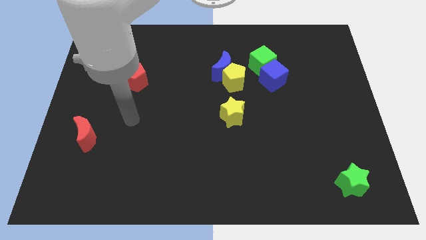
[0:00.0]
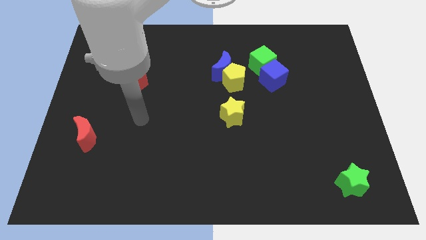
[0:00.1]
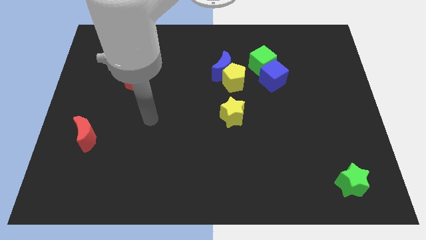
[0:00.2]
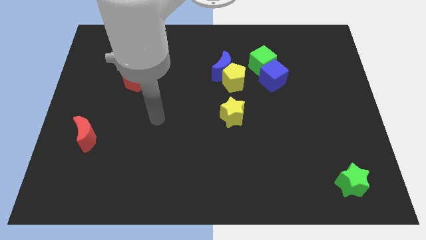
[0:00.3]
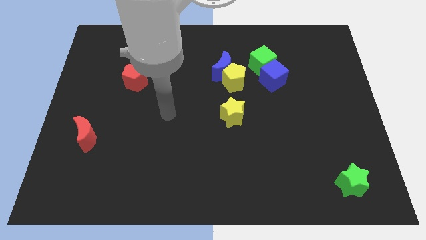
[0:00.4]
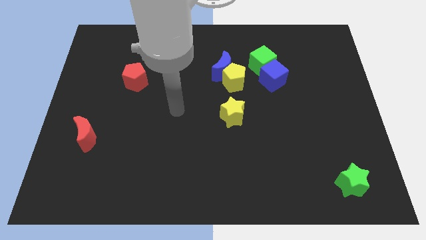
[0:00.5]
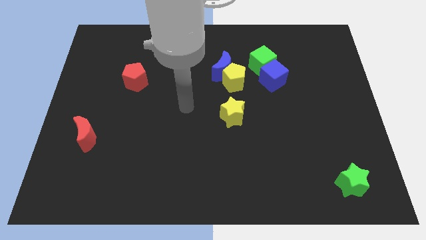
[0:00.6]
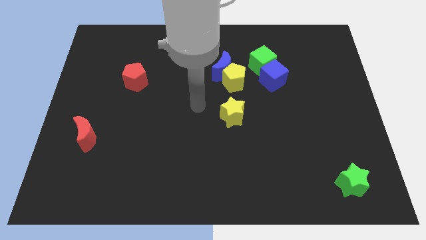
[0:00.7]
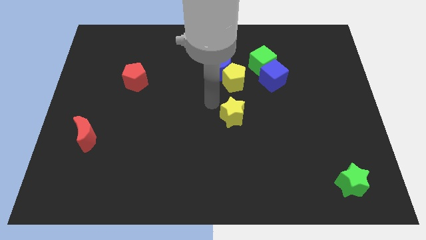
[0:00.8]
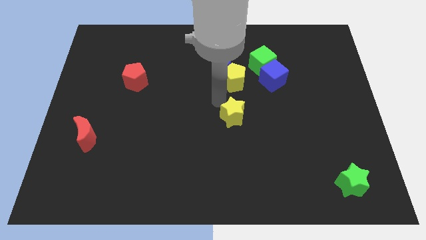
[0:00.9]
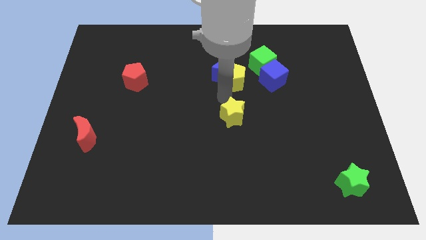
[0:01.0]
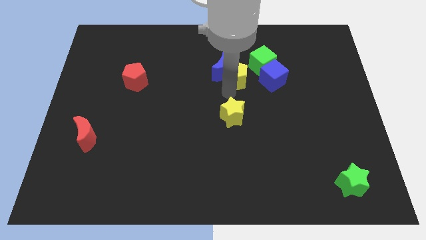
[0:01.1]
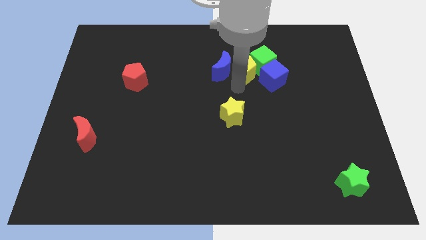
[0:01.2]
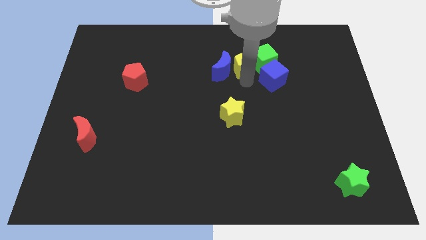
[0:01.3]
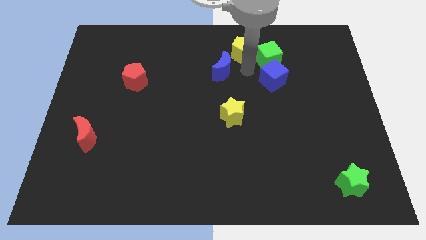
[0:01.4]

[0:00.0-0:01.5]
pull the blue moon apart from the yellow pentagon and green cube

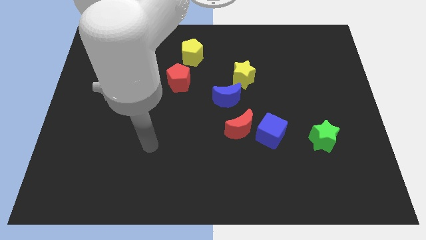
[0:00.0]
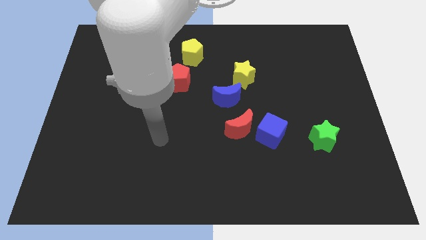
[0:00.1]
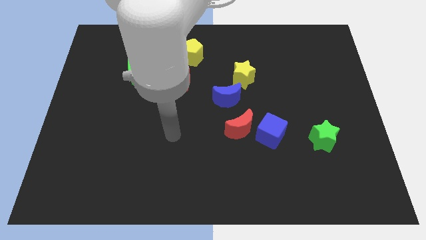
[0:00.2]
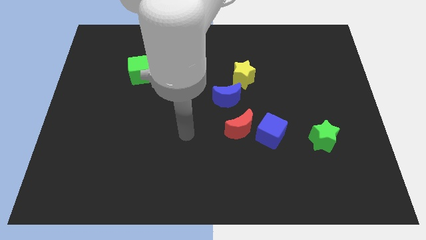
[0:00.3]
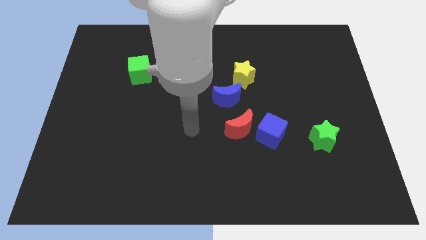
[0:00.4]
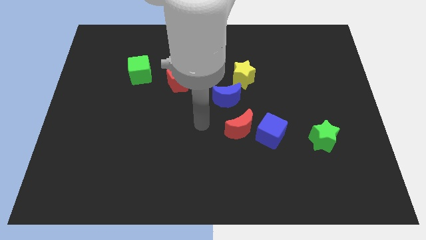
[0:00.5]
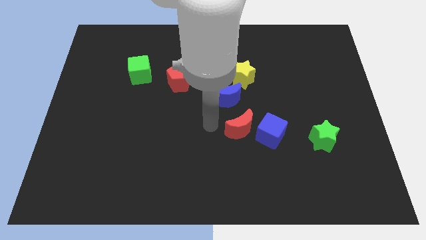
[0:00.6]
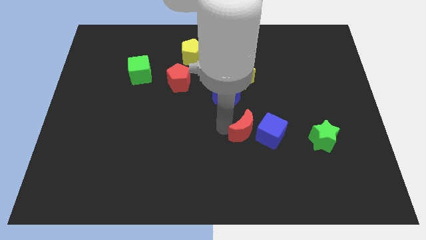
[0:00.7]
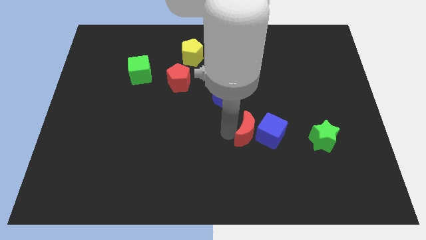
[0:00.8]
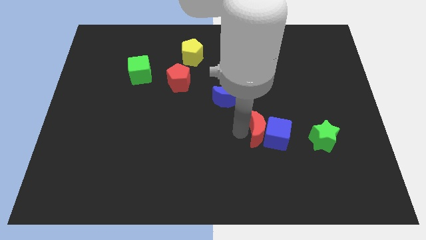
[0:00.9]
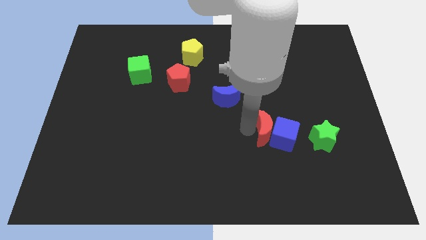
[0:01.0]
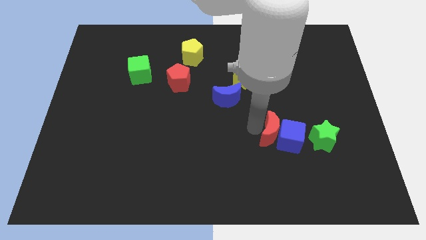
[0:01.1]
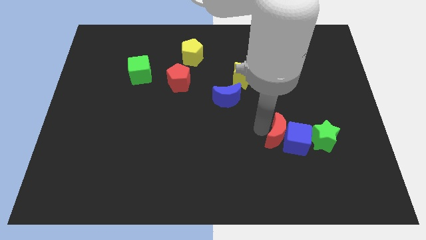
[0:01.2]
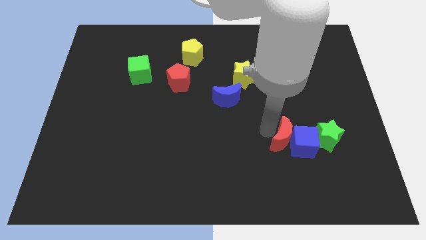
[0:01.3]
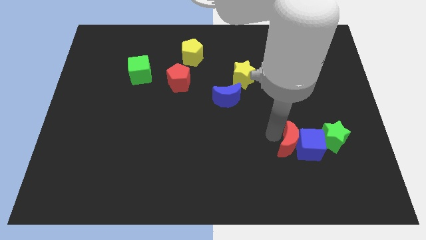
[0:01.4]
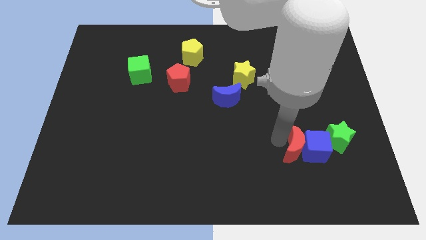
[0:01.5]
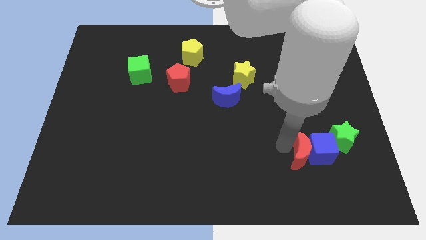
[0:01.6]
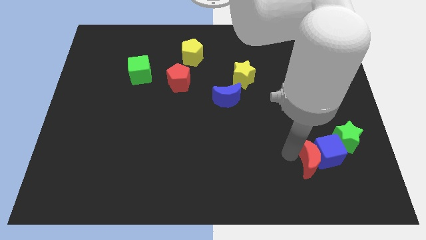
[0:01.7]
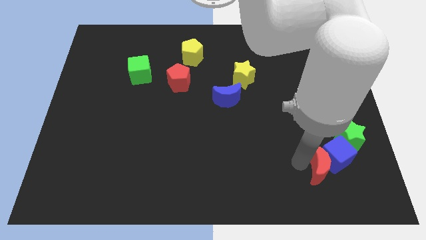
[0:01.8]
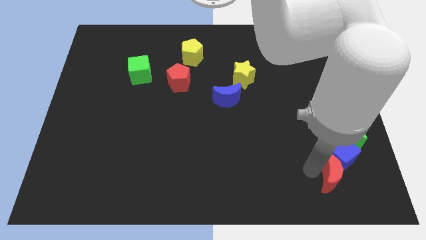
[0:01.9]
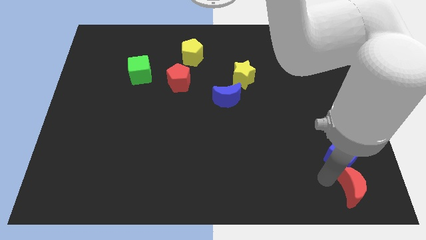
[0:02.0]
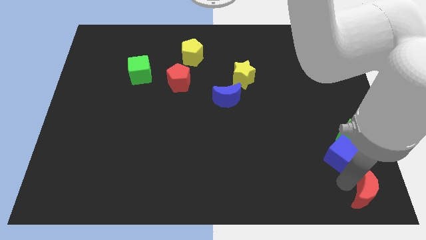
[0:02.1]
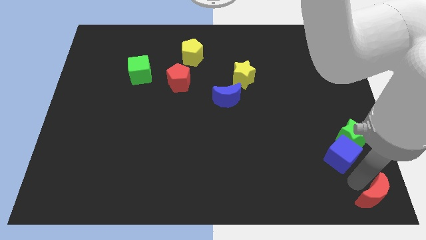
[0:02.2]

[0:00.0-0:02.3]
separate the blue cube from the red moon

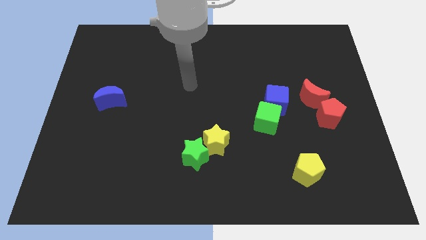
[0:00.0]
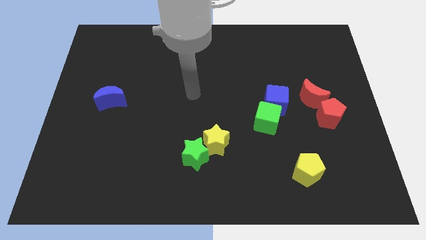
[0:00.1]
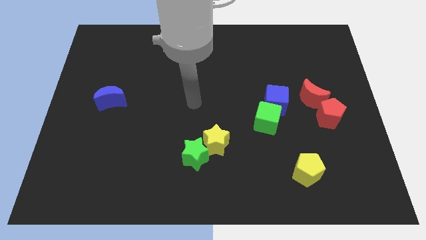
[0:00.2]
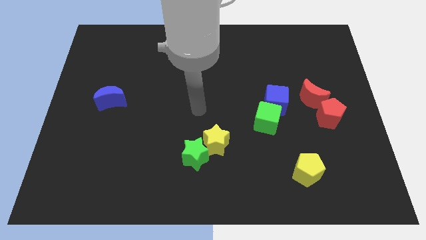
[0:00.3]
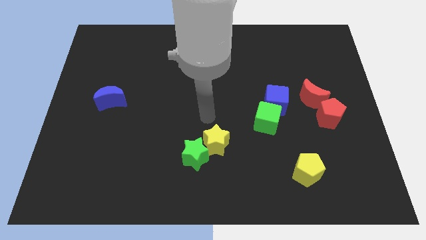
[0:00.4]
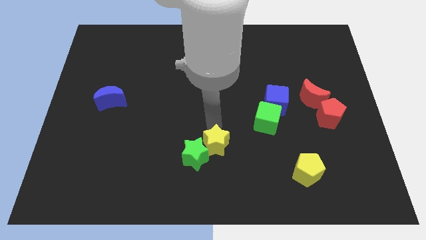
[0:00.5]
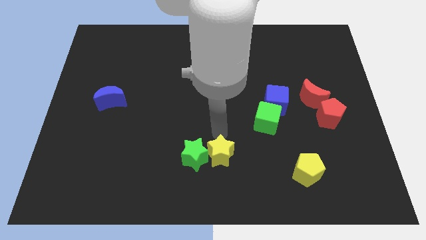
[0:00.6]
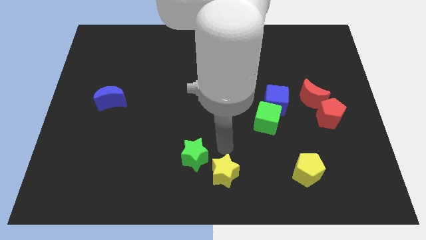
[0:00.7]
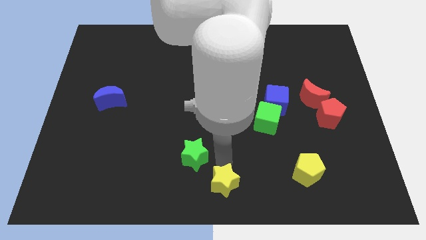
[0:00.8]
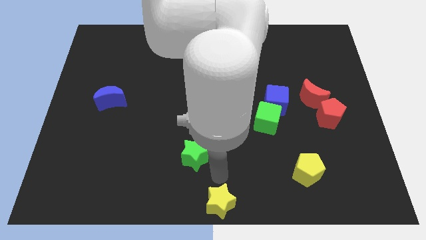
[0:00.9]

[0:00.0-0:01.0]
pull the green star apart from the yellow star

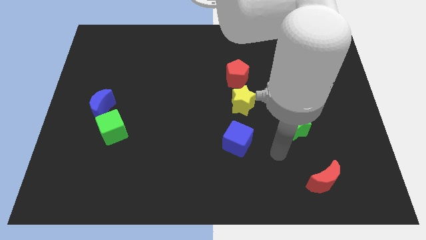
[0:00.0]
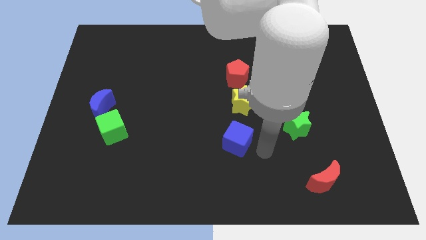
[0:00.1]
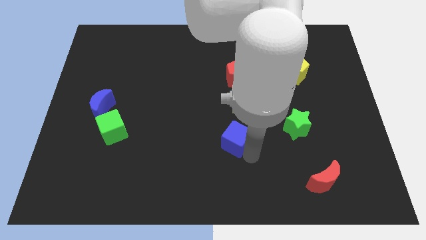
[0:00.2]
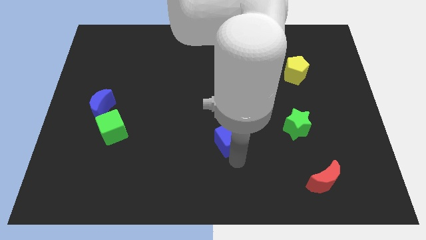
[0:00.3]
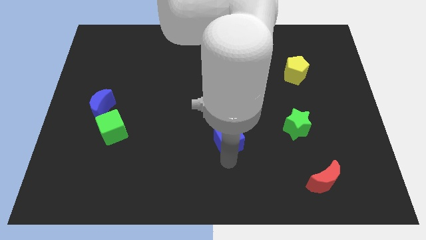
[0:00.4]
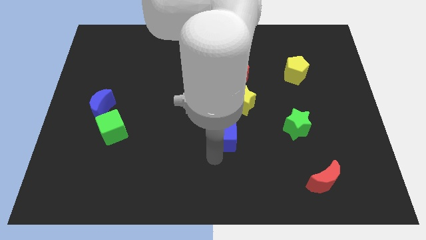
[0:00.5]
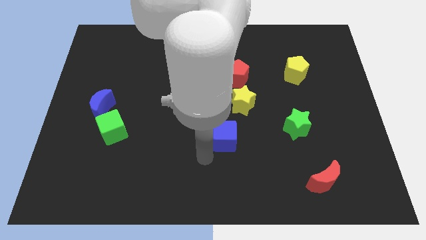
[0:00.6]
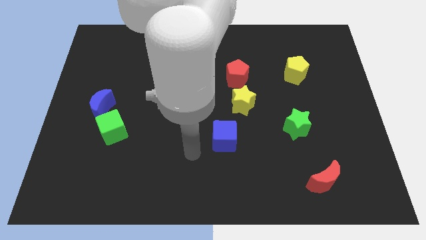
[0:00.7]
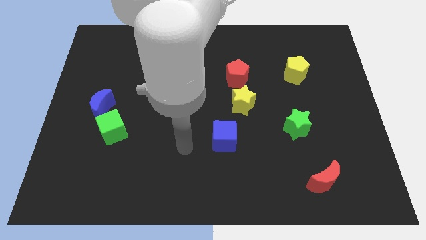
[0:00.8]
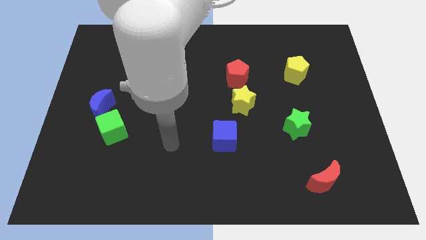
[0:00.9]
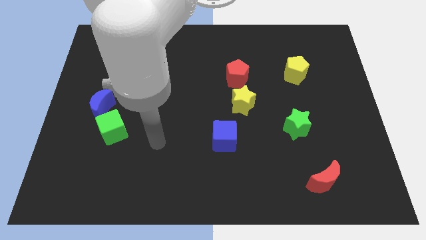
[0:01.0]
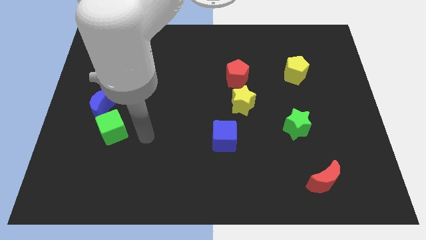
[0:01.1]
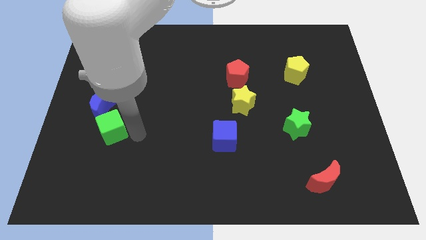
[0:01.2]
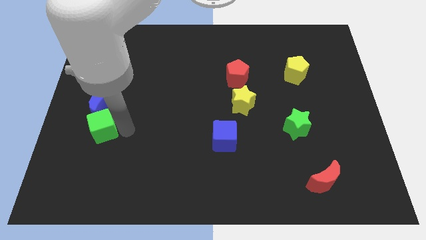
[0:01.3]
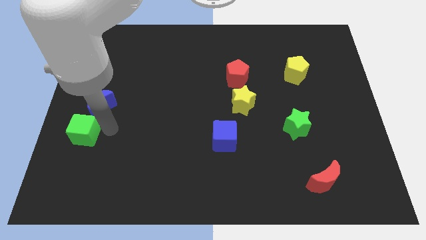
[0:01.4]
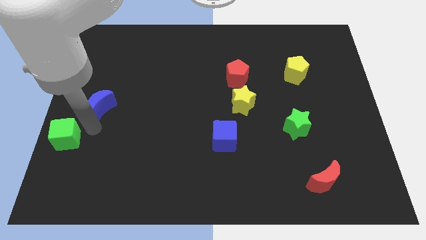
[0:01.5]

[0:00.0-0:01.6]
separate the blue moon from the green cube

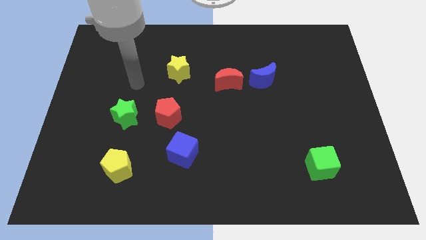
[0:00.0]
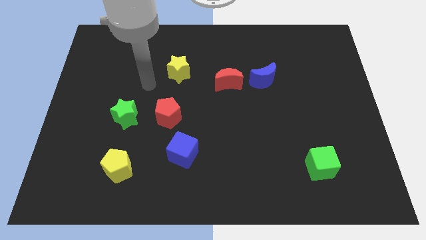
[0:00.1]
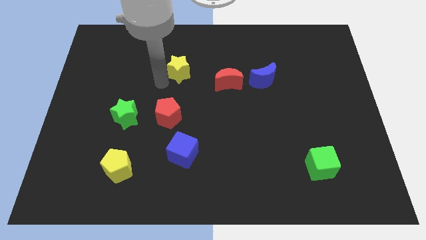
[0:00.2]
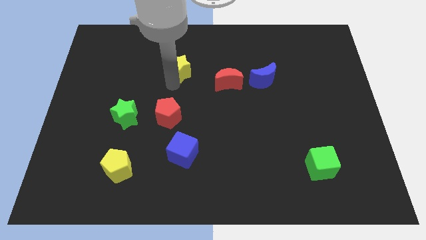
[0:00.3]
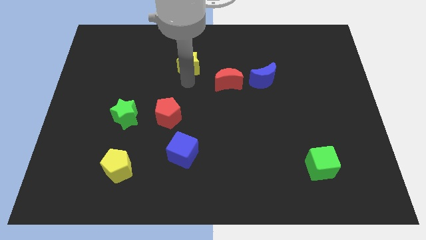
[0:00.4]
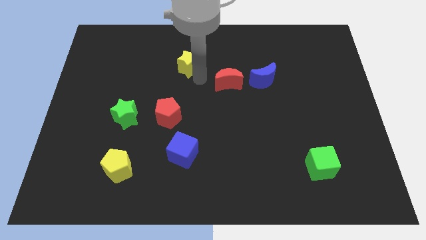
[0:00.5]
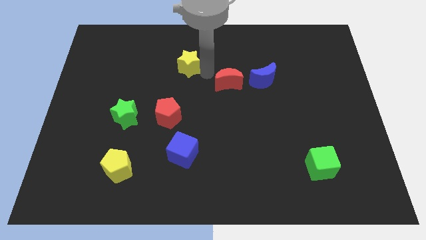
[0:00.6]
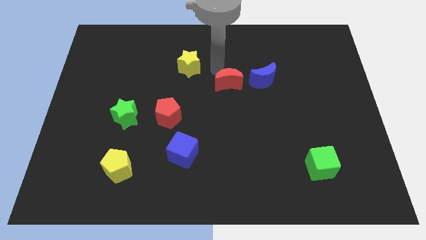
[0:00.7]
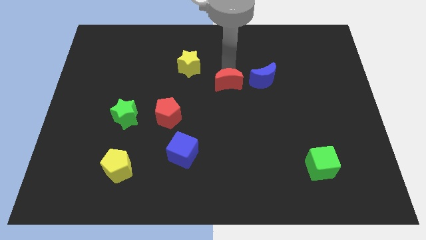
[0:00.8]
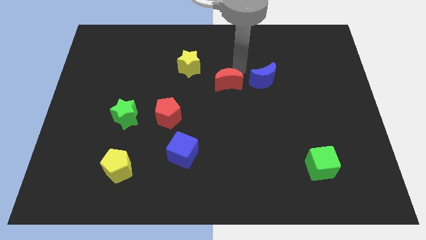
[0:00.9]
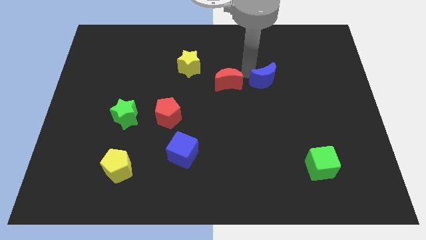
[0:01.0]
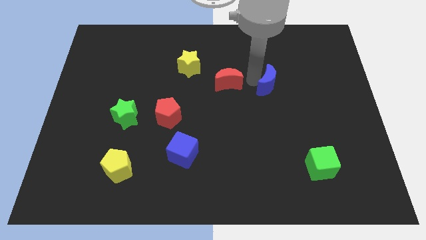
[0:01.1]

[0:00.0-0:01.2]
move the red moon away from the blue moon

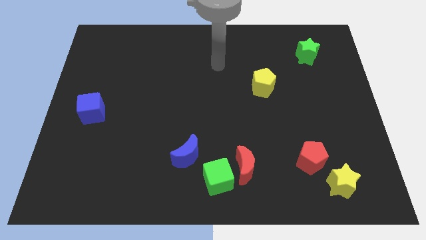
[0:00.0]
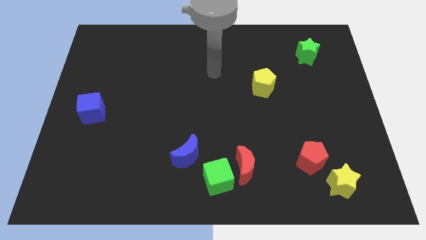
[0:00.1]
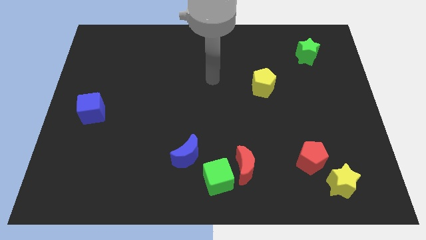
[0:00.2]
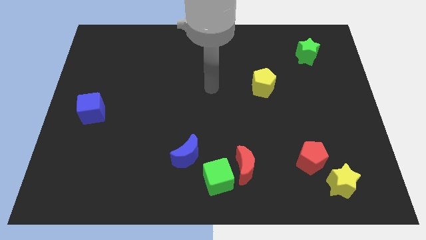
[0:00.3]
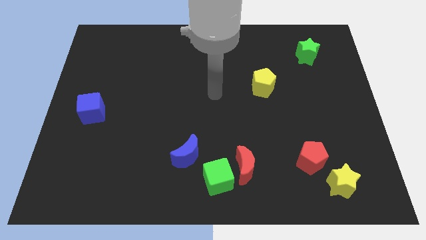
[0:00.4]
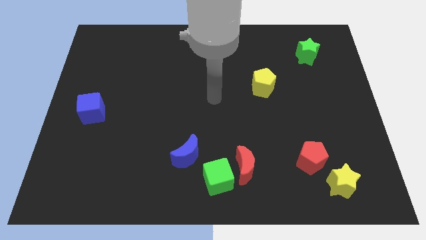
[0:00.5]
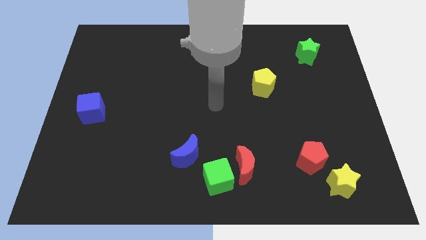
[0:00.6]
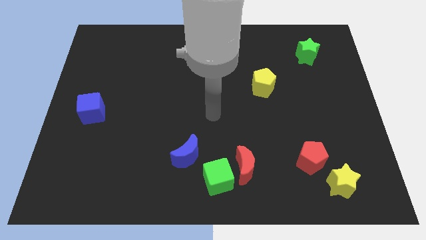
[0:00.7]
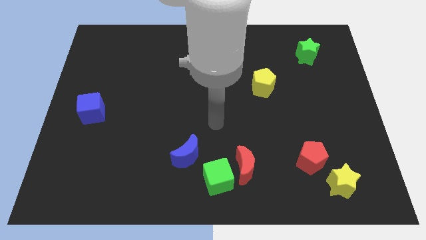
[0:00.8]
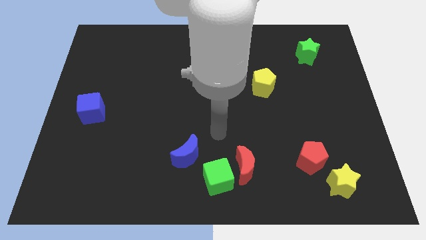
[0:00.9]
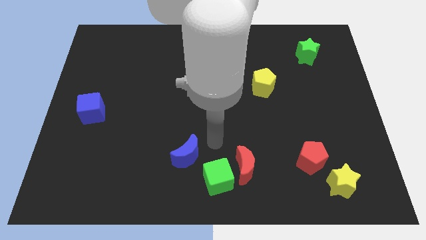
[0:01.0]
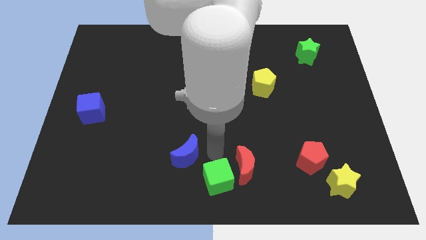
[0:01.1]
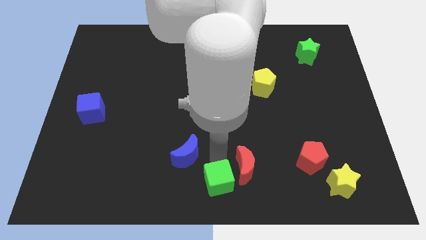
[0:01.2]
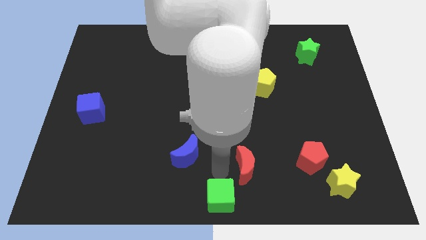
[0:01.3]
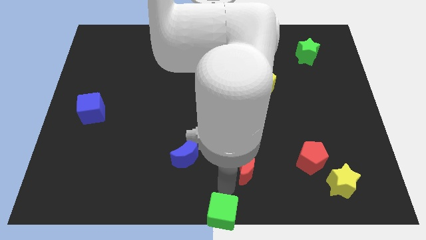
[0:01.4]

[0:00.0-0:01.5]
separate the red moon from the green cube

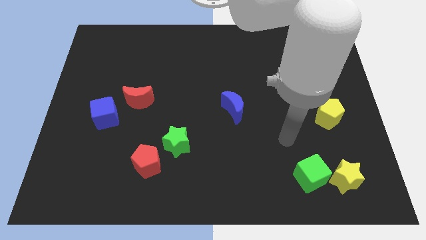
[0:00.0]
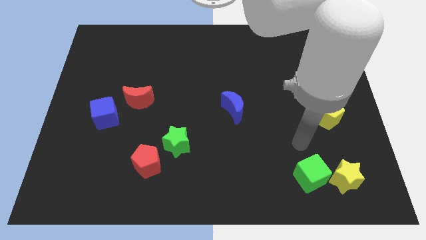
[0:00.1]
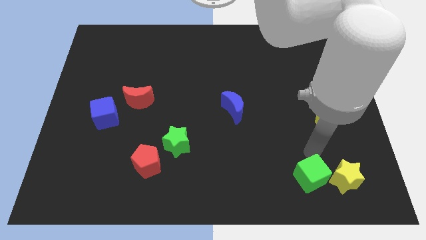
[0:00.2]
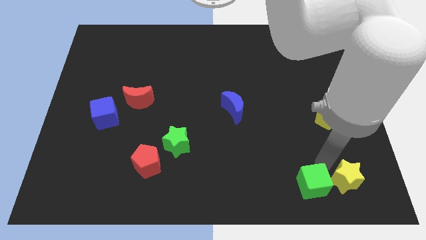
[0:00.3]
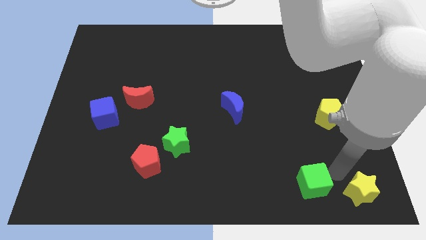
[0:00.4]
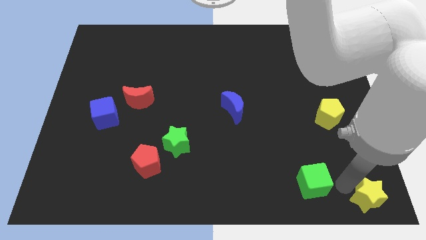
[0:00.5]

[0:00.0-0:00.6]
pull the green cube apart from the yellow star
